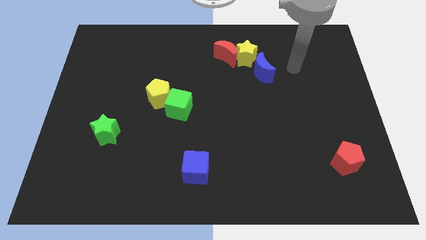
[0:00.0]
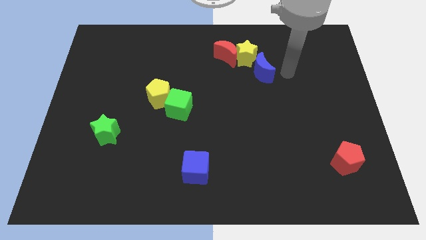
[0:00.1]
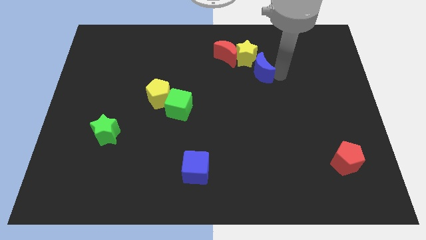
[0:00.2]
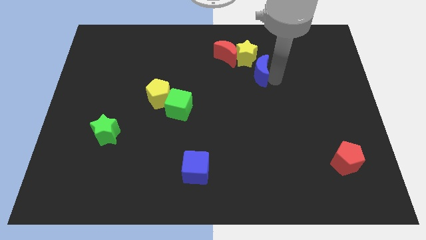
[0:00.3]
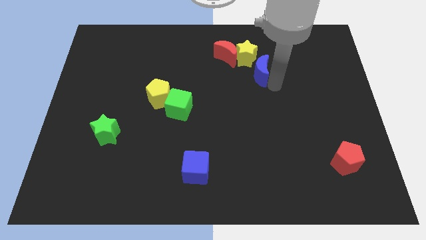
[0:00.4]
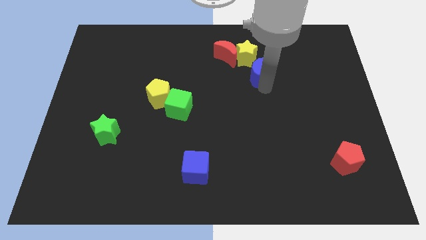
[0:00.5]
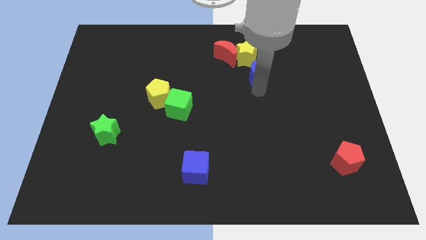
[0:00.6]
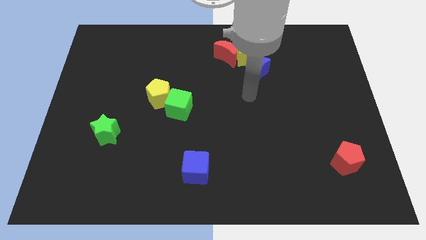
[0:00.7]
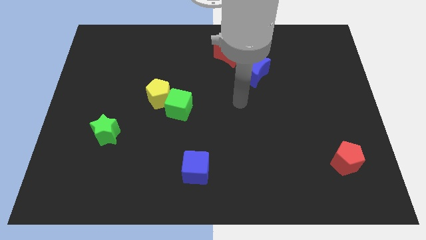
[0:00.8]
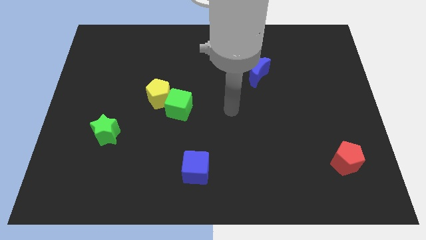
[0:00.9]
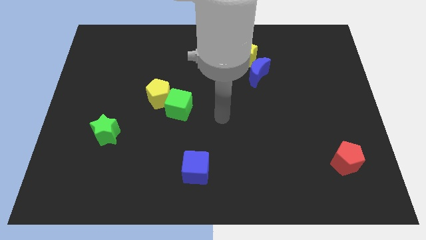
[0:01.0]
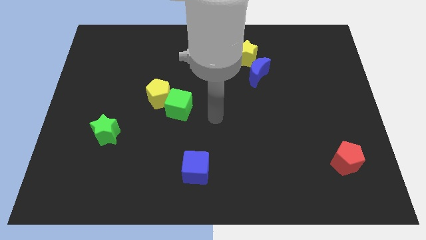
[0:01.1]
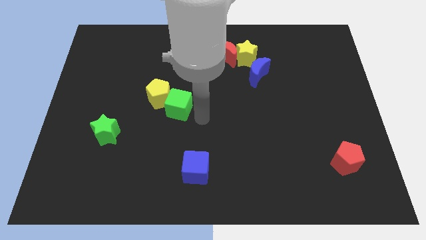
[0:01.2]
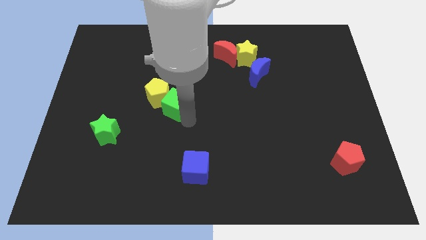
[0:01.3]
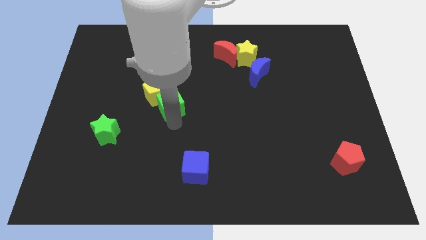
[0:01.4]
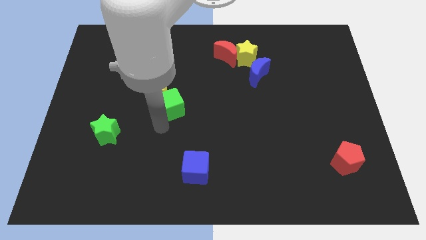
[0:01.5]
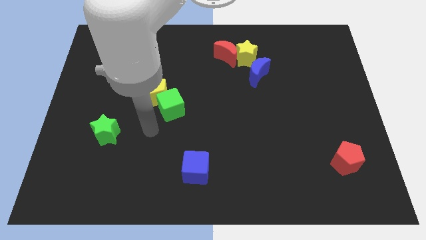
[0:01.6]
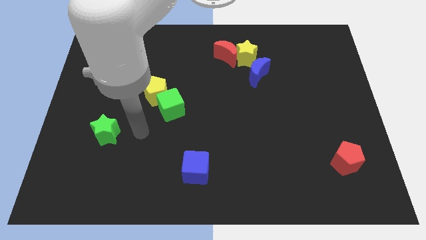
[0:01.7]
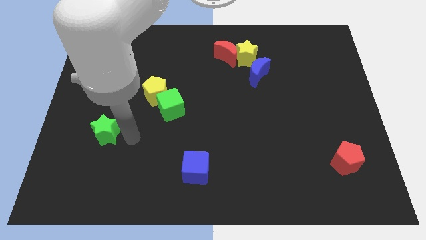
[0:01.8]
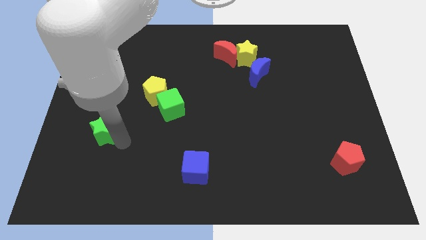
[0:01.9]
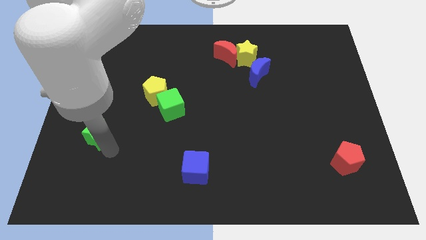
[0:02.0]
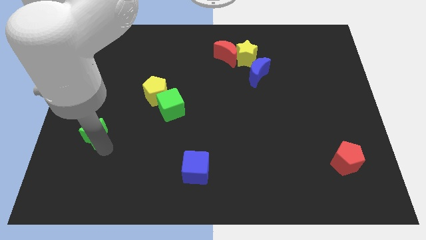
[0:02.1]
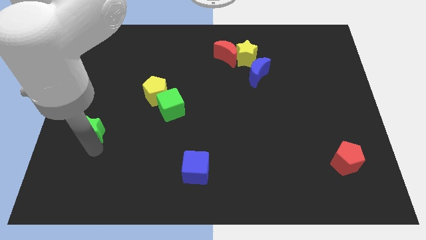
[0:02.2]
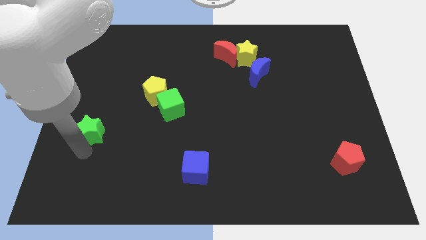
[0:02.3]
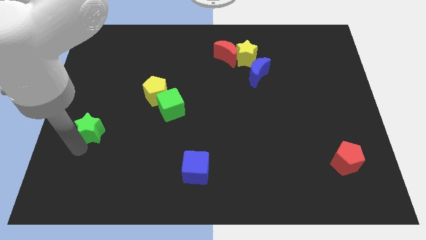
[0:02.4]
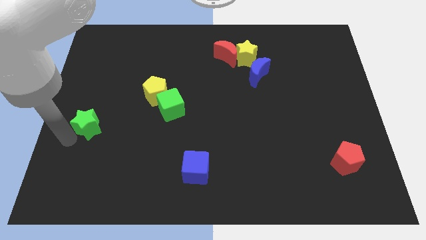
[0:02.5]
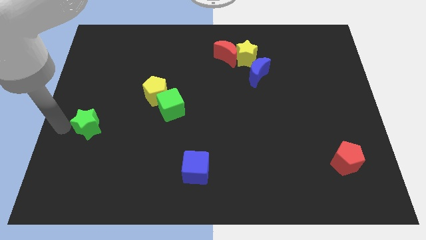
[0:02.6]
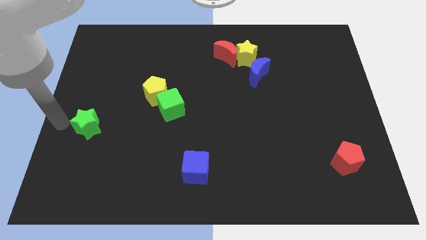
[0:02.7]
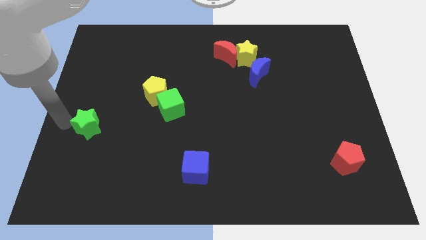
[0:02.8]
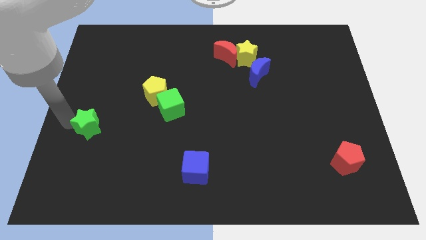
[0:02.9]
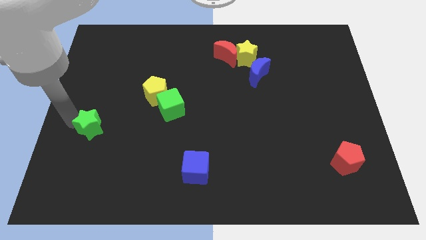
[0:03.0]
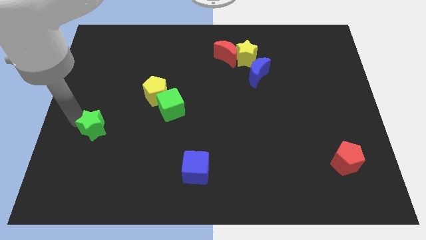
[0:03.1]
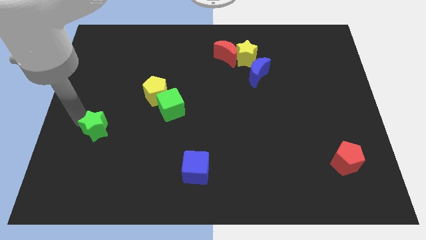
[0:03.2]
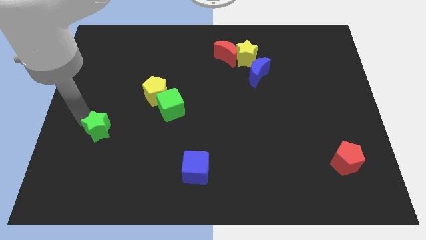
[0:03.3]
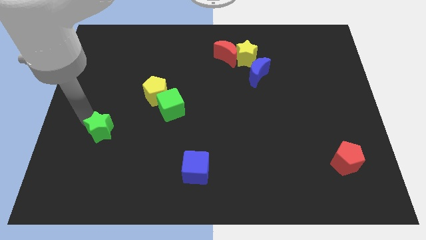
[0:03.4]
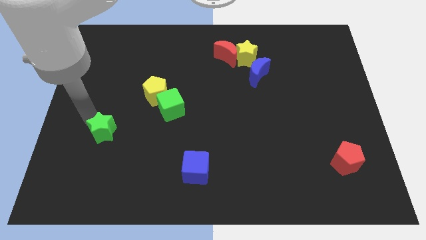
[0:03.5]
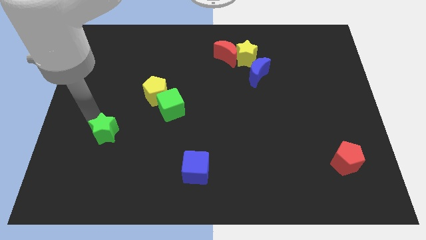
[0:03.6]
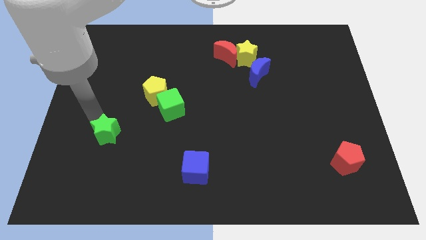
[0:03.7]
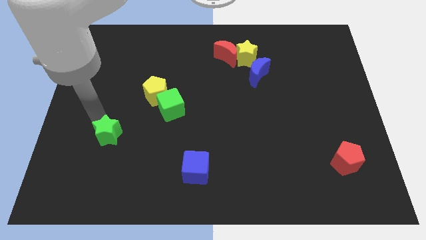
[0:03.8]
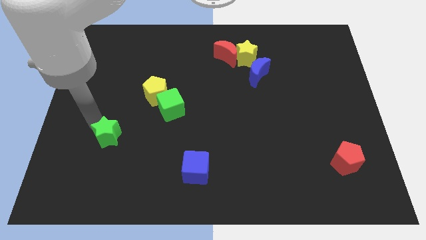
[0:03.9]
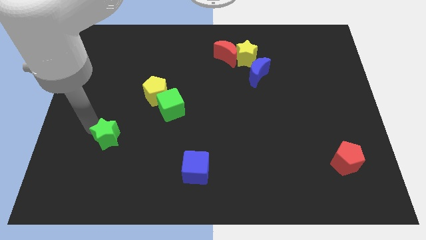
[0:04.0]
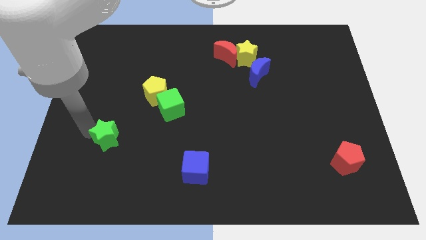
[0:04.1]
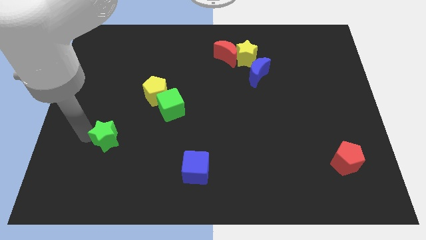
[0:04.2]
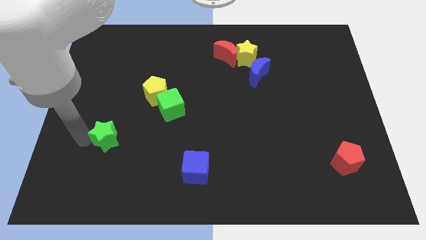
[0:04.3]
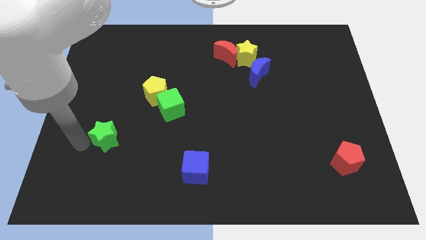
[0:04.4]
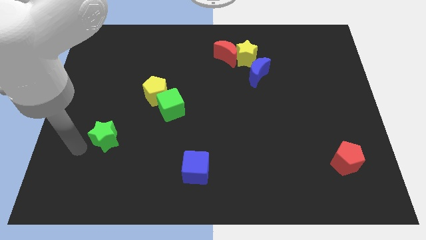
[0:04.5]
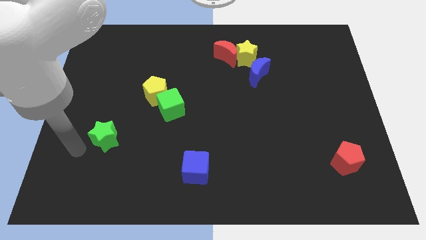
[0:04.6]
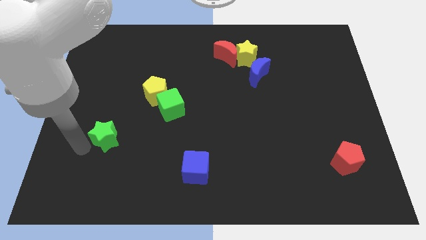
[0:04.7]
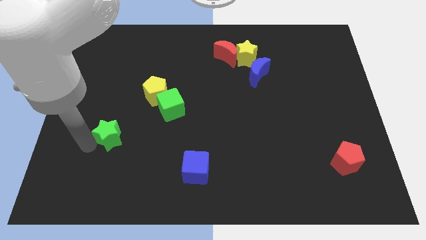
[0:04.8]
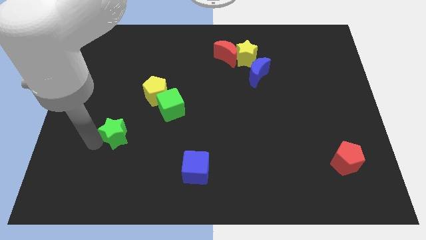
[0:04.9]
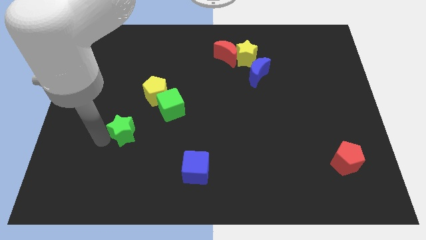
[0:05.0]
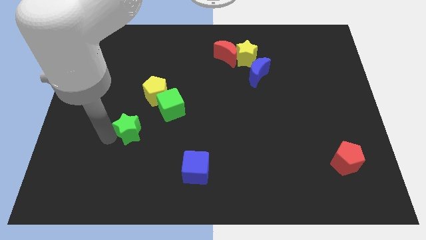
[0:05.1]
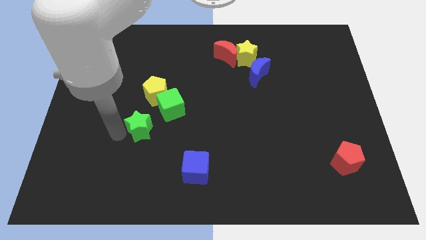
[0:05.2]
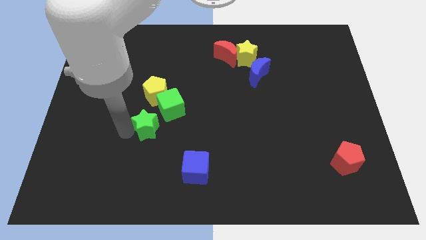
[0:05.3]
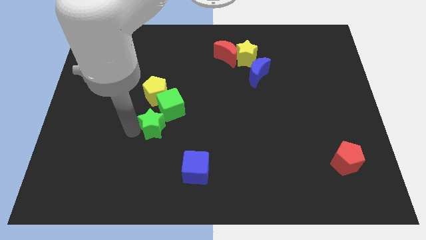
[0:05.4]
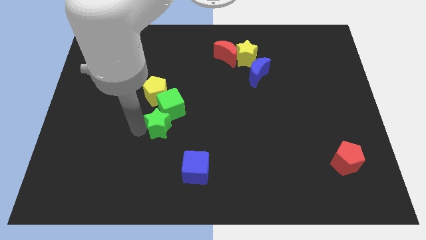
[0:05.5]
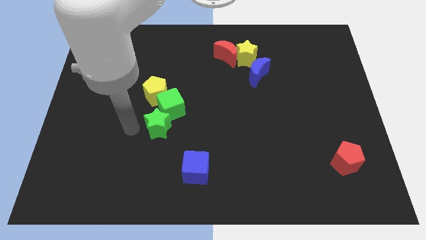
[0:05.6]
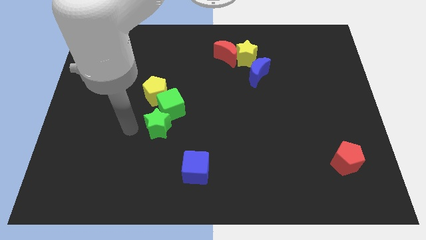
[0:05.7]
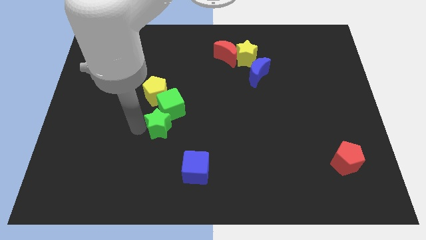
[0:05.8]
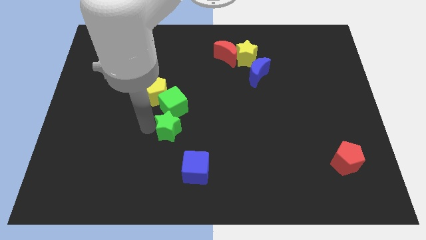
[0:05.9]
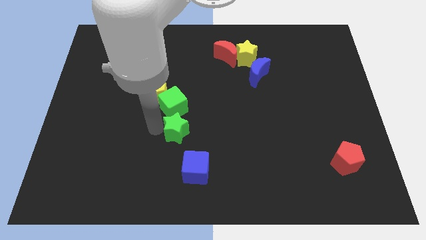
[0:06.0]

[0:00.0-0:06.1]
move the green star to the middle of the board

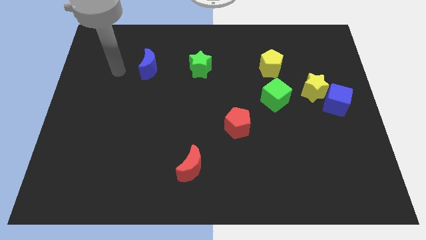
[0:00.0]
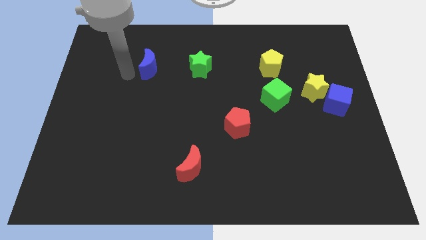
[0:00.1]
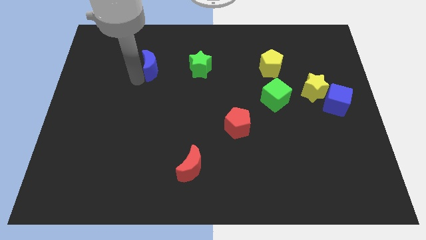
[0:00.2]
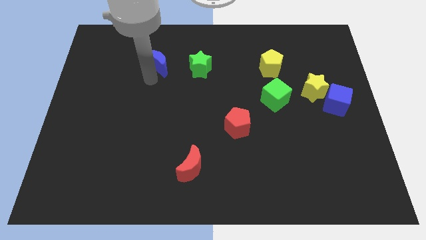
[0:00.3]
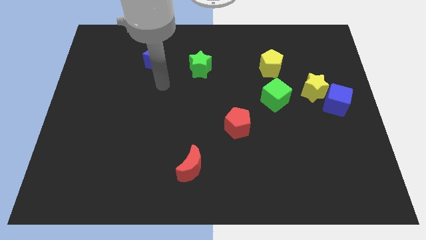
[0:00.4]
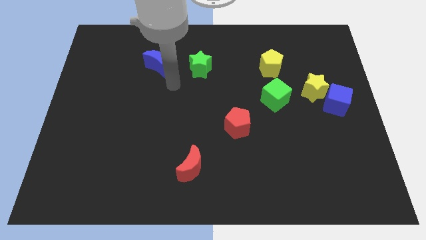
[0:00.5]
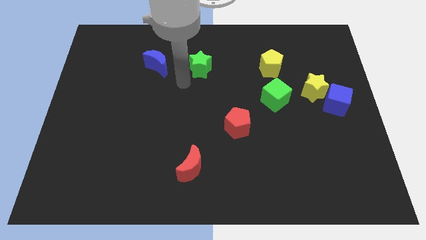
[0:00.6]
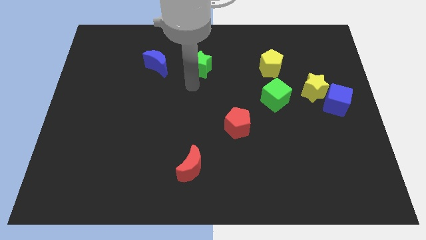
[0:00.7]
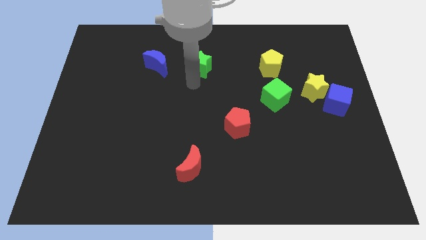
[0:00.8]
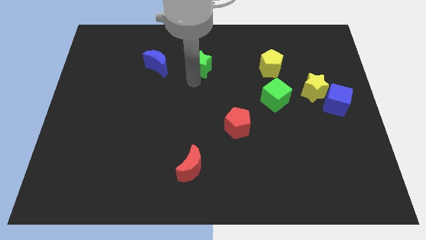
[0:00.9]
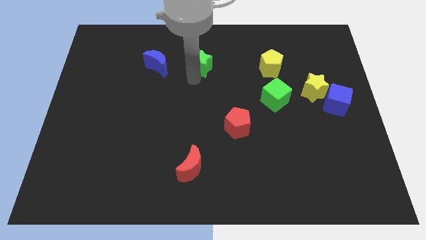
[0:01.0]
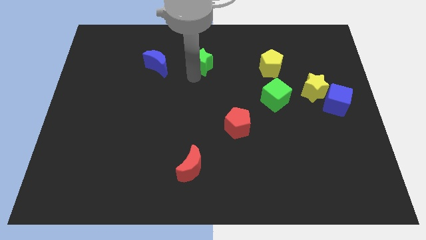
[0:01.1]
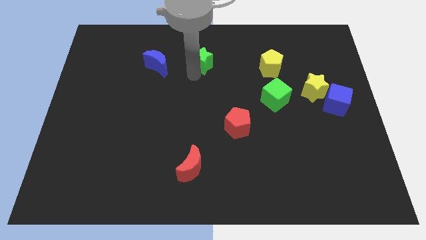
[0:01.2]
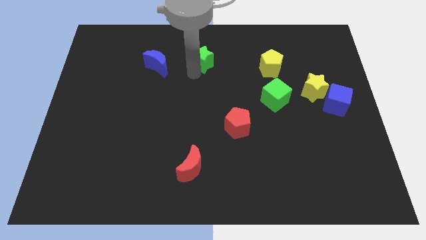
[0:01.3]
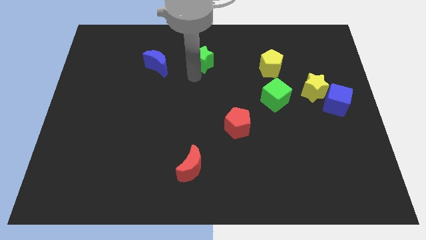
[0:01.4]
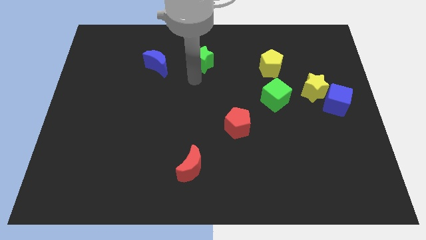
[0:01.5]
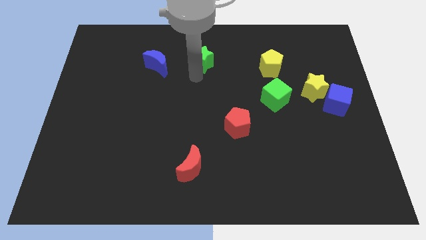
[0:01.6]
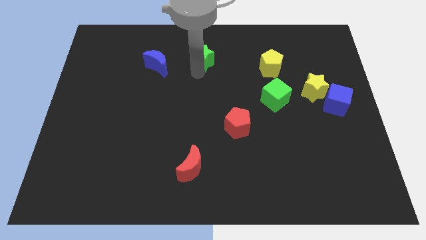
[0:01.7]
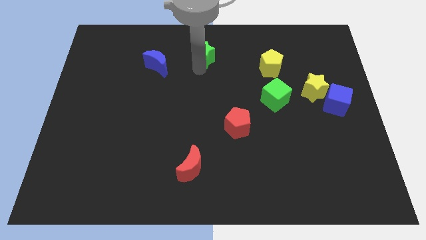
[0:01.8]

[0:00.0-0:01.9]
slide the green star to the top

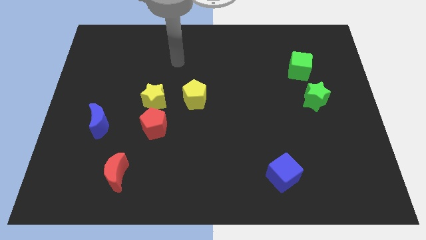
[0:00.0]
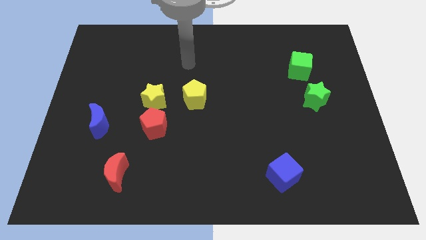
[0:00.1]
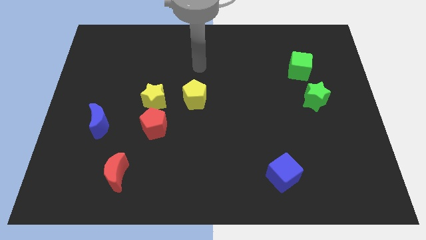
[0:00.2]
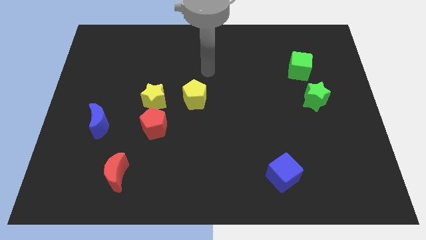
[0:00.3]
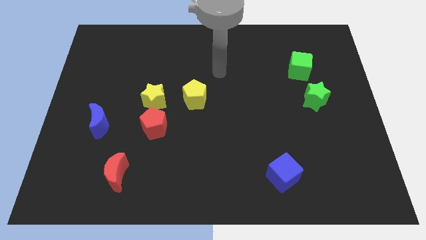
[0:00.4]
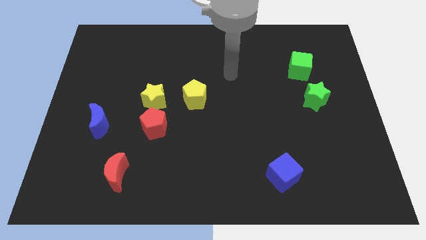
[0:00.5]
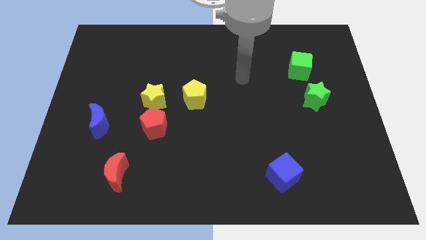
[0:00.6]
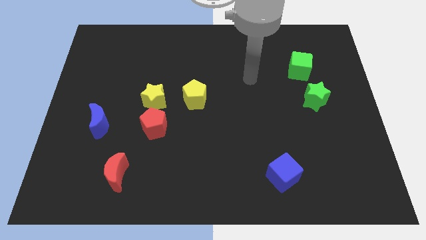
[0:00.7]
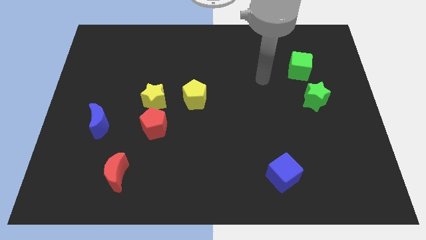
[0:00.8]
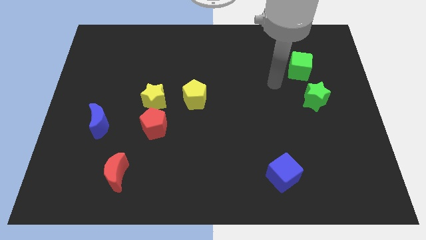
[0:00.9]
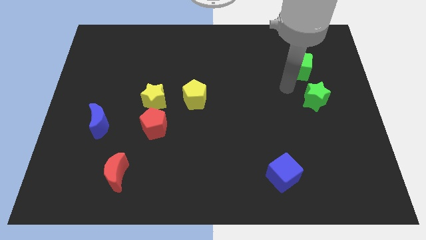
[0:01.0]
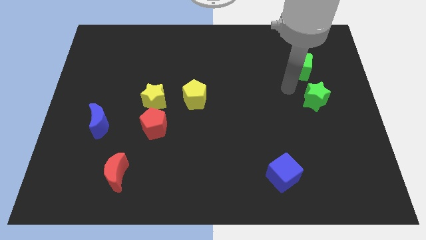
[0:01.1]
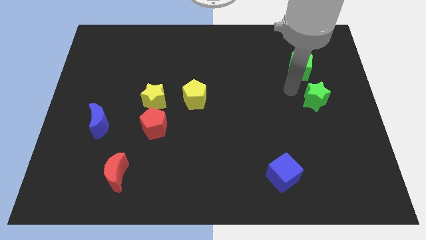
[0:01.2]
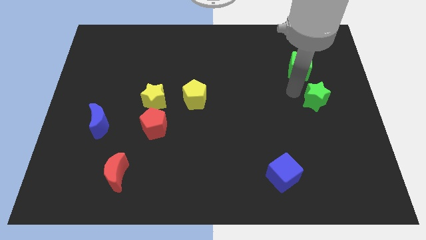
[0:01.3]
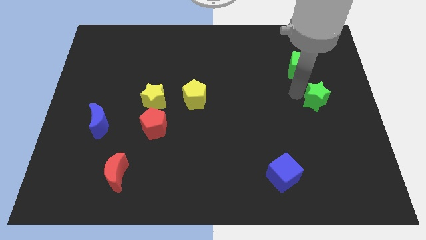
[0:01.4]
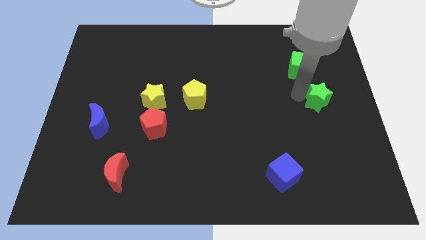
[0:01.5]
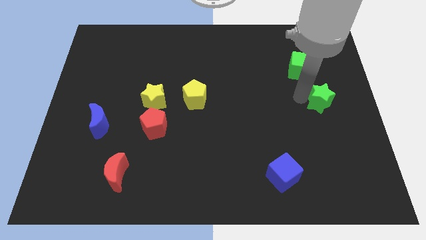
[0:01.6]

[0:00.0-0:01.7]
slide the green star to the center right
